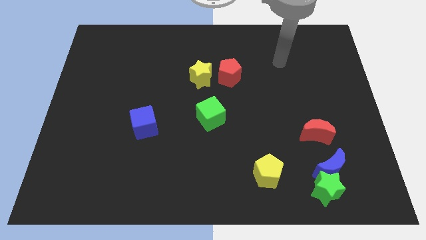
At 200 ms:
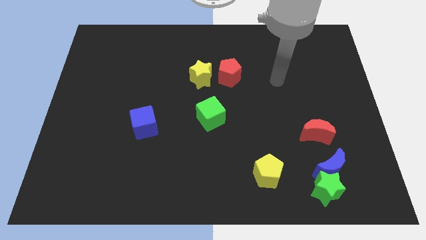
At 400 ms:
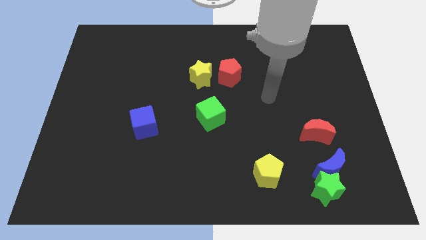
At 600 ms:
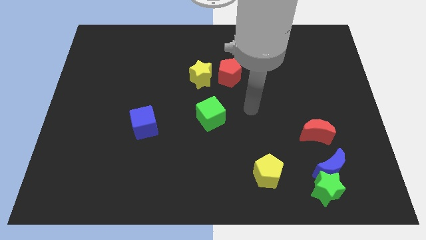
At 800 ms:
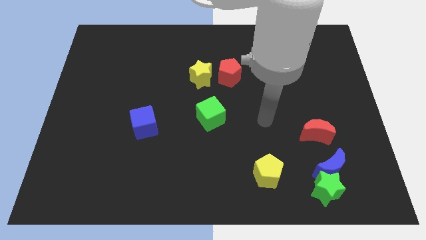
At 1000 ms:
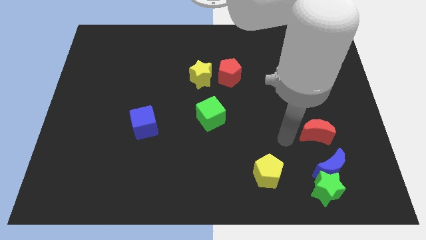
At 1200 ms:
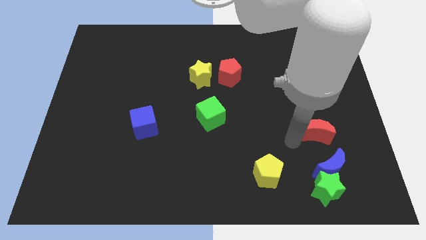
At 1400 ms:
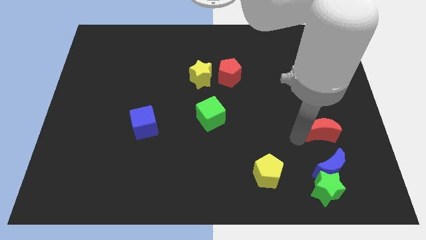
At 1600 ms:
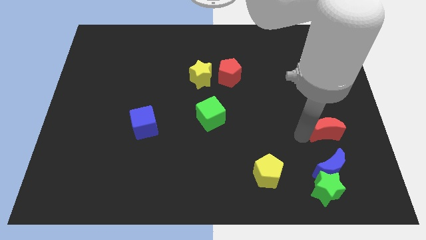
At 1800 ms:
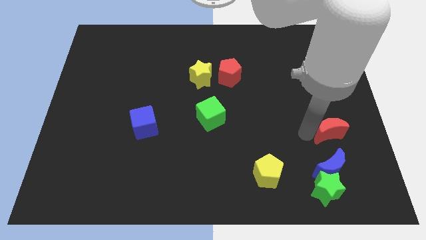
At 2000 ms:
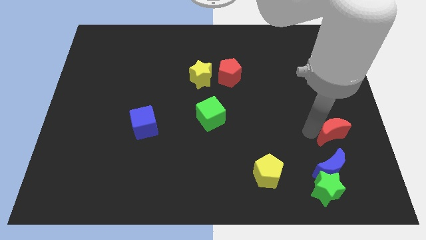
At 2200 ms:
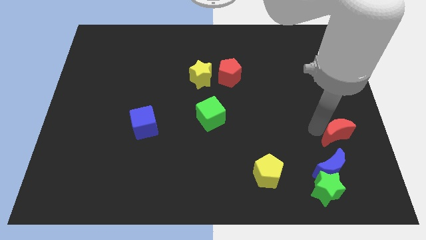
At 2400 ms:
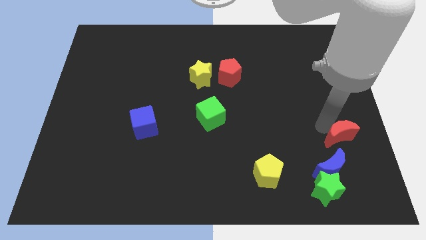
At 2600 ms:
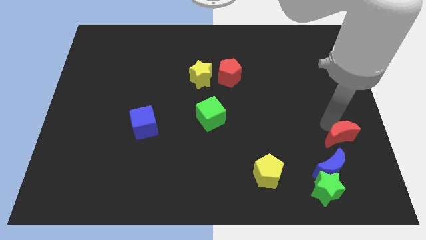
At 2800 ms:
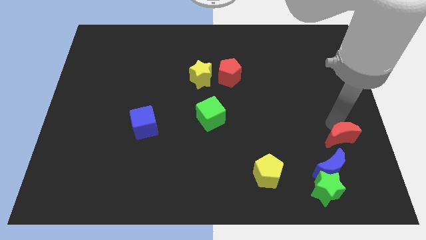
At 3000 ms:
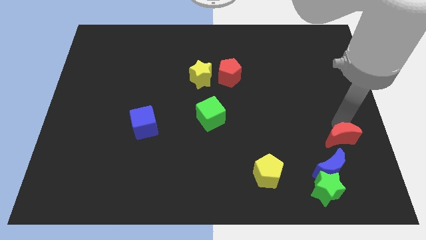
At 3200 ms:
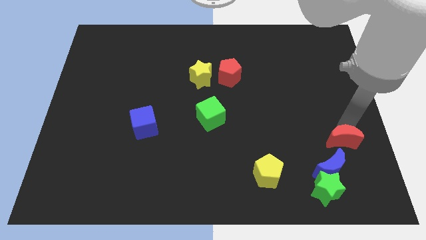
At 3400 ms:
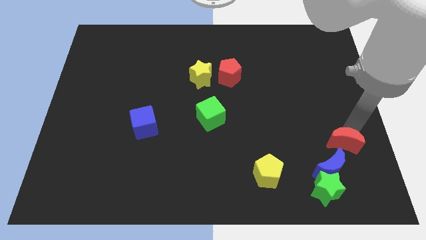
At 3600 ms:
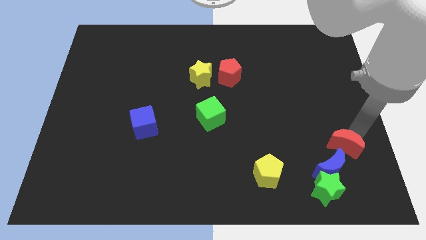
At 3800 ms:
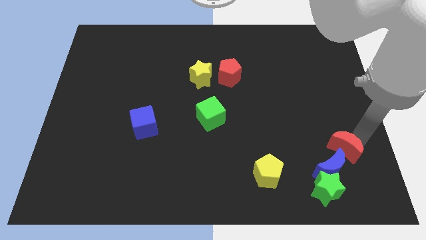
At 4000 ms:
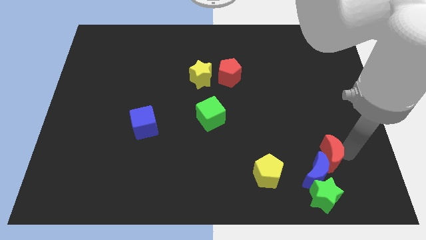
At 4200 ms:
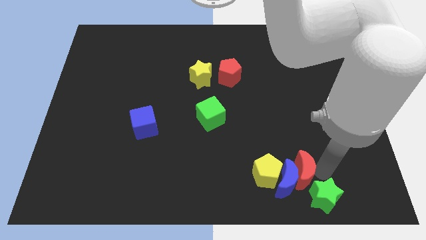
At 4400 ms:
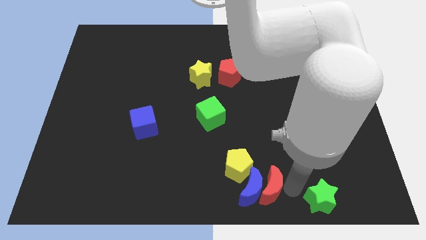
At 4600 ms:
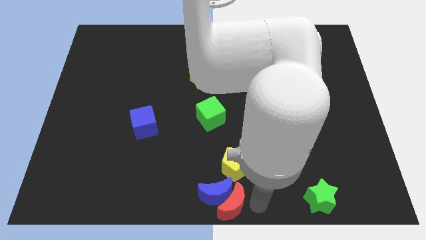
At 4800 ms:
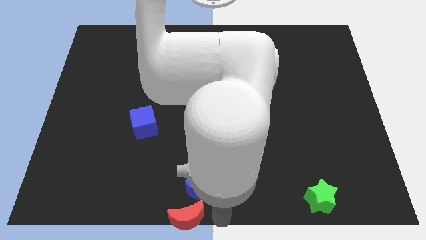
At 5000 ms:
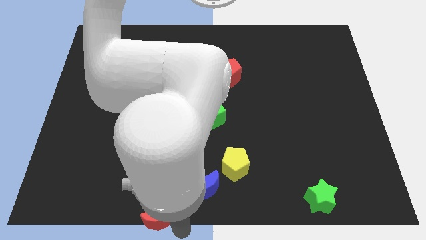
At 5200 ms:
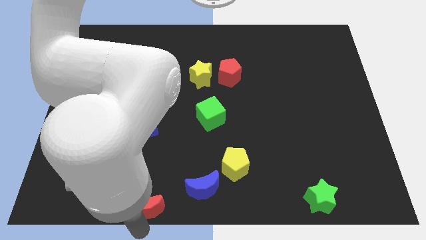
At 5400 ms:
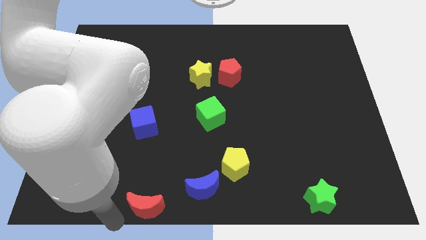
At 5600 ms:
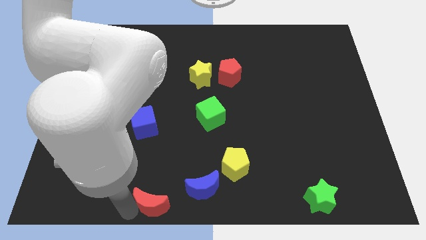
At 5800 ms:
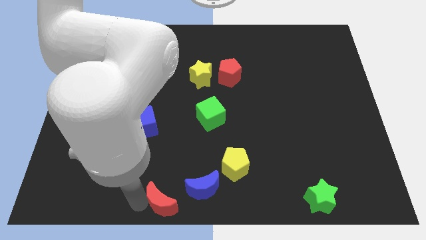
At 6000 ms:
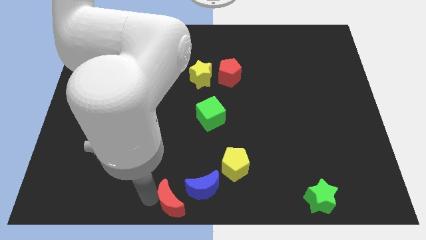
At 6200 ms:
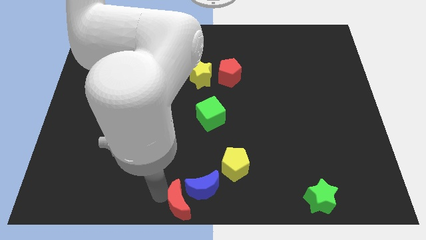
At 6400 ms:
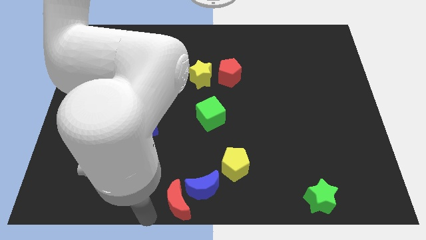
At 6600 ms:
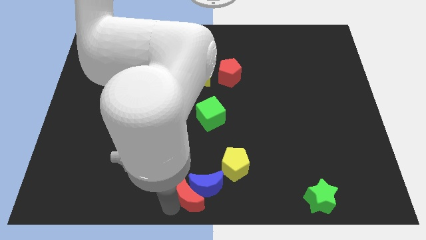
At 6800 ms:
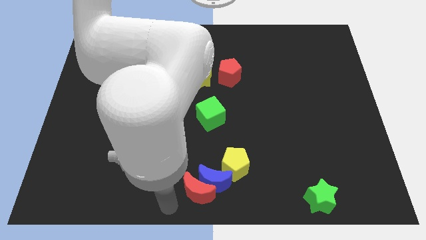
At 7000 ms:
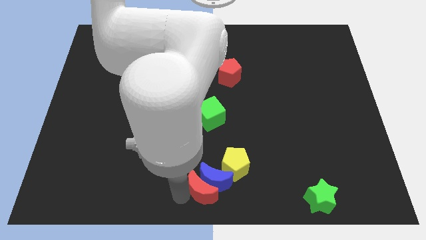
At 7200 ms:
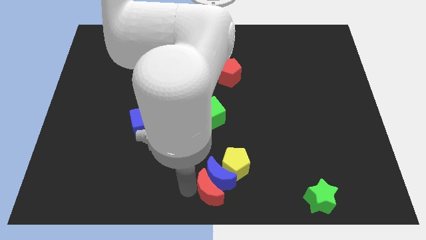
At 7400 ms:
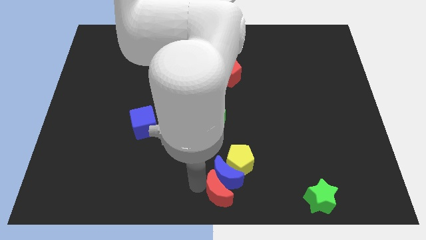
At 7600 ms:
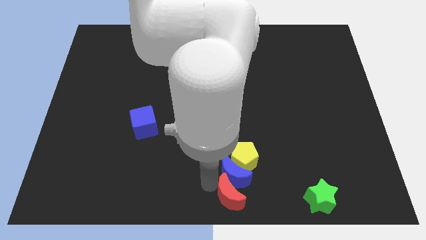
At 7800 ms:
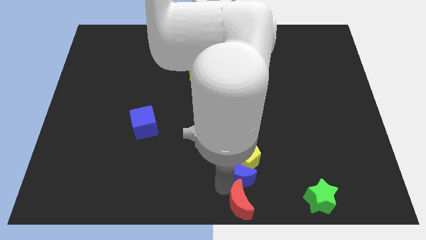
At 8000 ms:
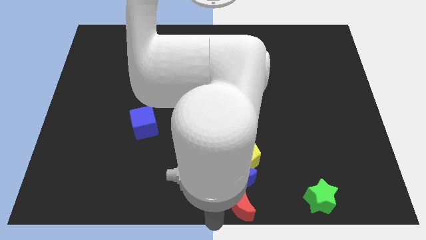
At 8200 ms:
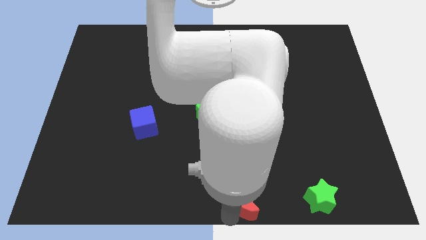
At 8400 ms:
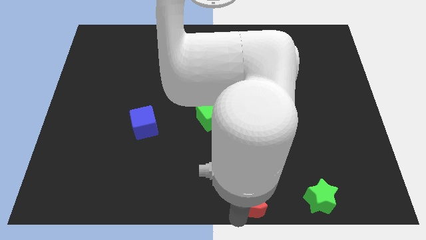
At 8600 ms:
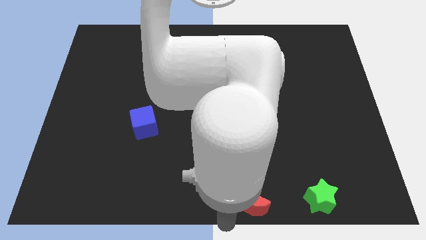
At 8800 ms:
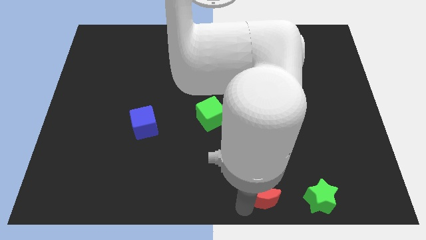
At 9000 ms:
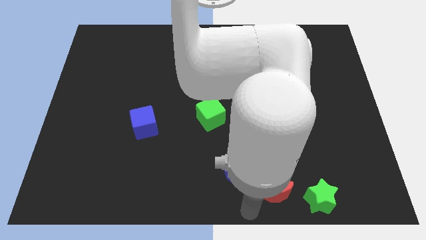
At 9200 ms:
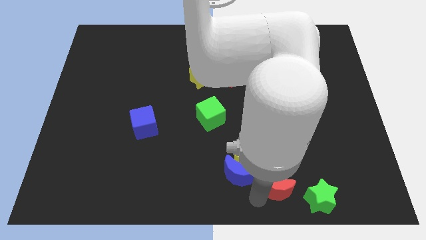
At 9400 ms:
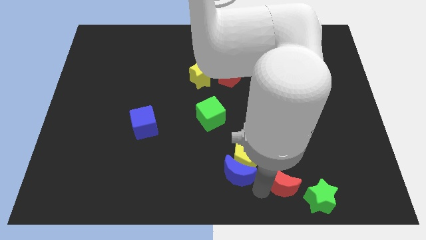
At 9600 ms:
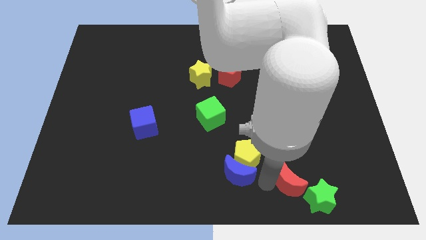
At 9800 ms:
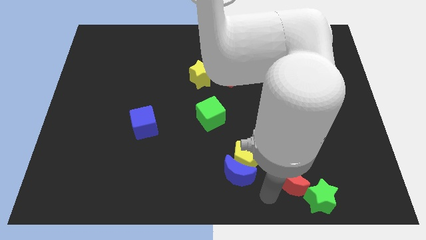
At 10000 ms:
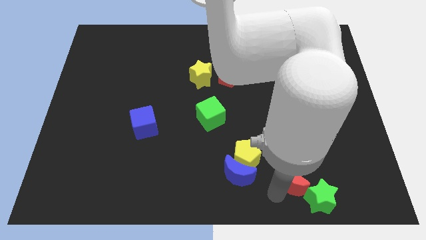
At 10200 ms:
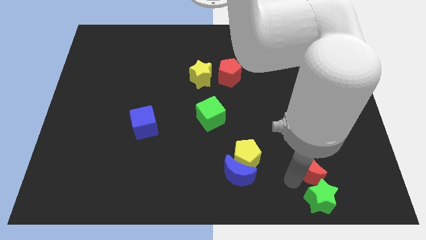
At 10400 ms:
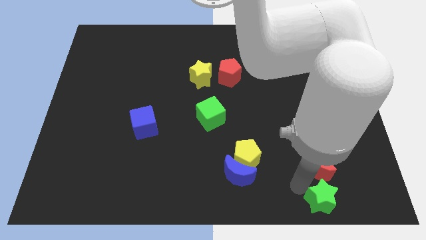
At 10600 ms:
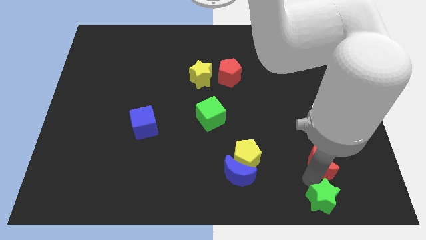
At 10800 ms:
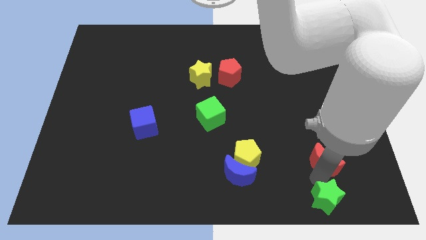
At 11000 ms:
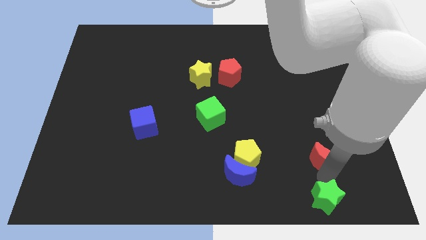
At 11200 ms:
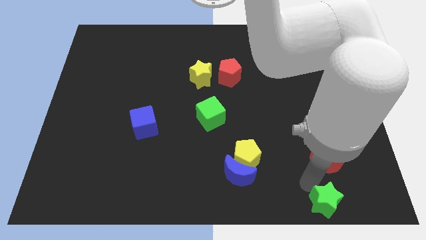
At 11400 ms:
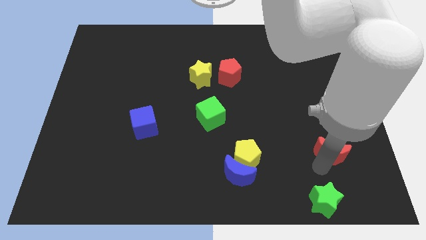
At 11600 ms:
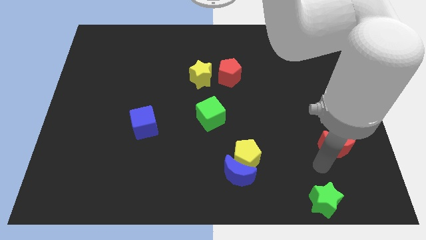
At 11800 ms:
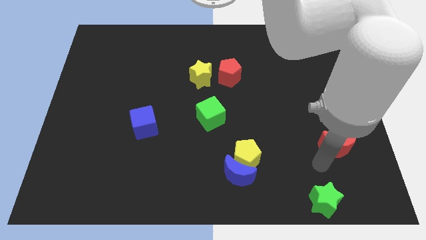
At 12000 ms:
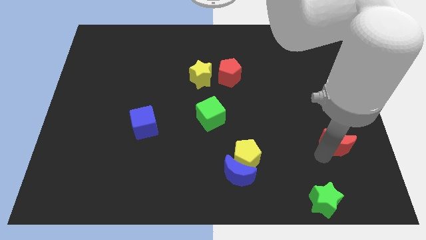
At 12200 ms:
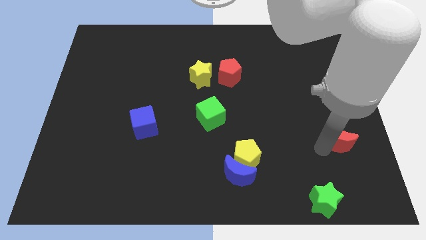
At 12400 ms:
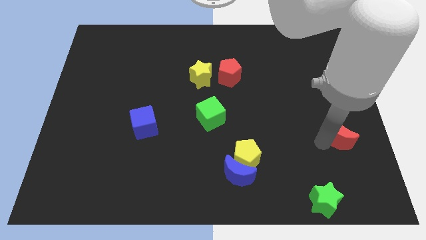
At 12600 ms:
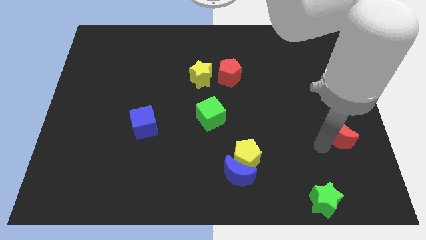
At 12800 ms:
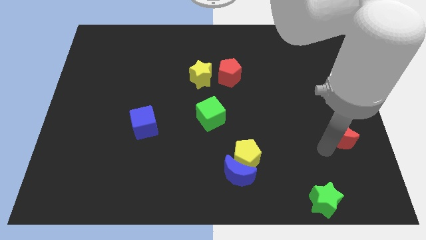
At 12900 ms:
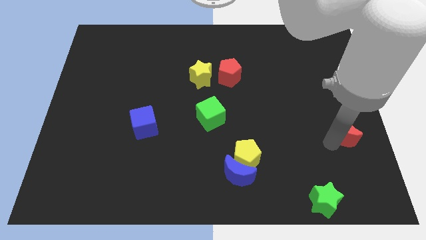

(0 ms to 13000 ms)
slide the red moon to the right side
